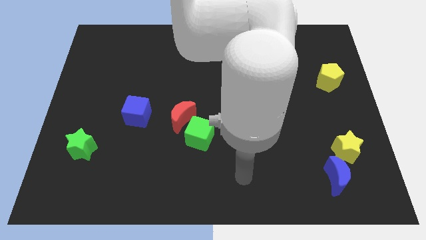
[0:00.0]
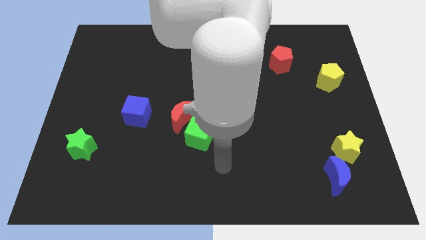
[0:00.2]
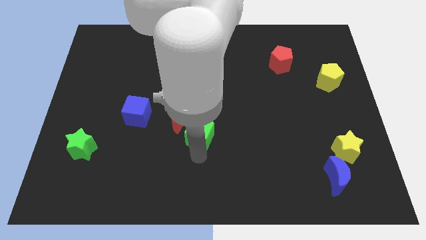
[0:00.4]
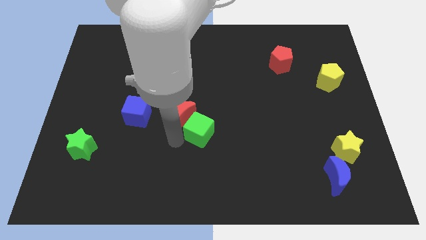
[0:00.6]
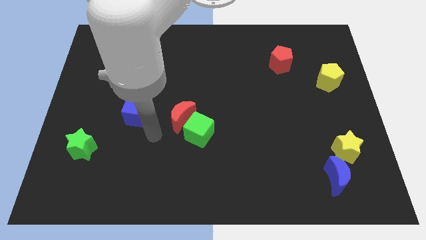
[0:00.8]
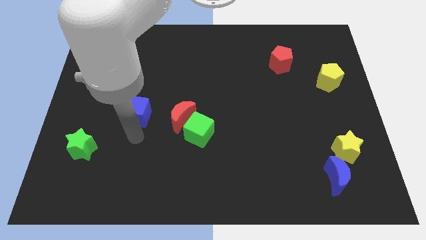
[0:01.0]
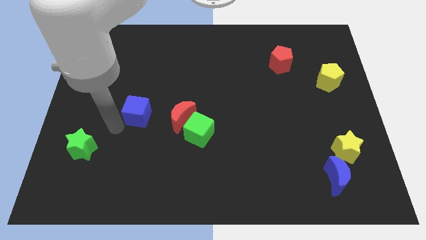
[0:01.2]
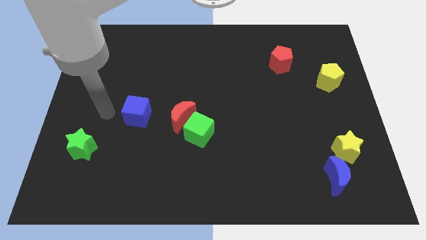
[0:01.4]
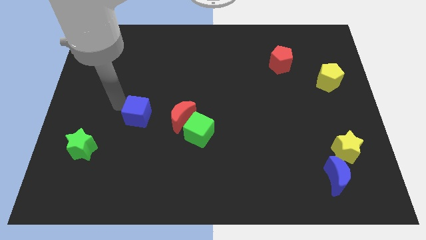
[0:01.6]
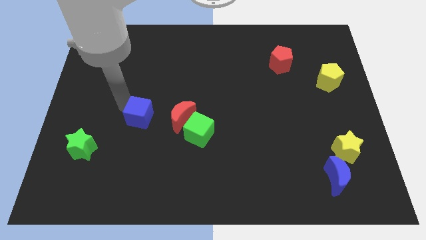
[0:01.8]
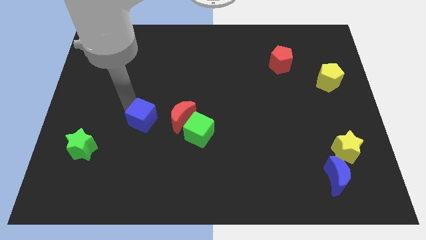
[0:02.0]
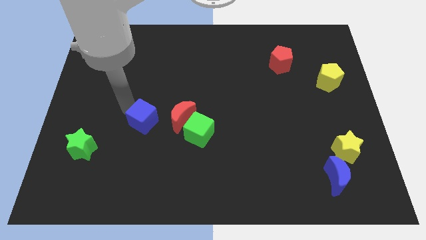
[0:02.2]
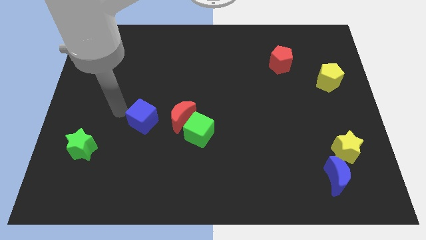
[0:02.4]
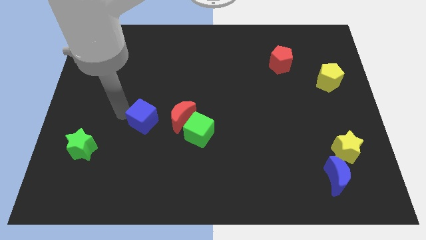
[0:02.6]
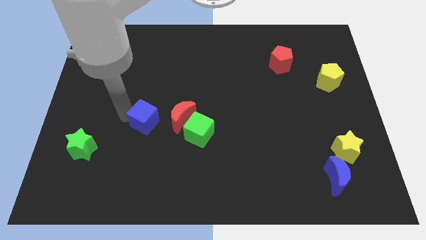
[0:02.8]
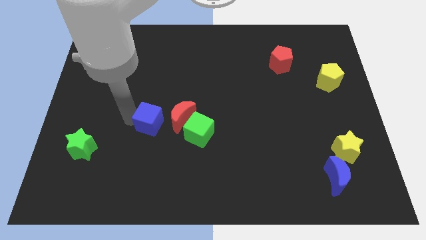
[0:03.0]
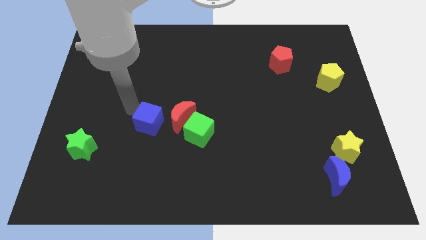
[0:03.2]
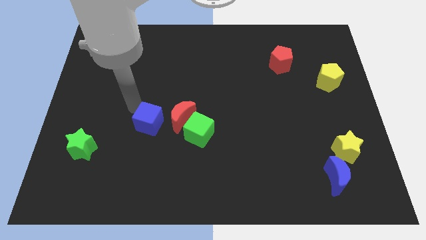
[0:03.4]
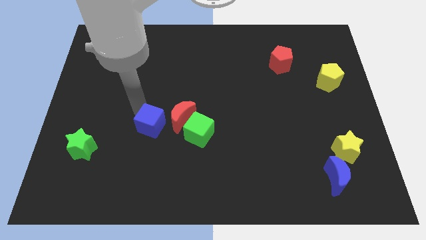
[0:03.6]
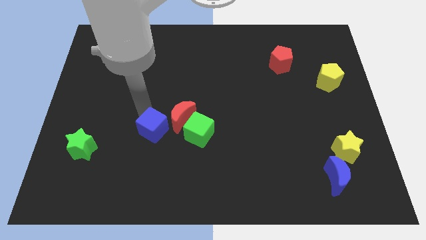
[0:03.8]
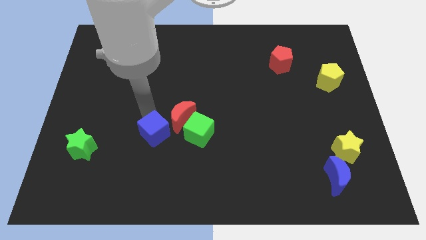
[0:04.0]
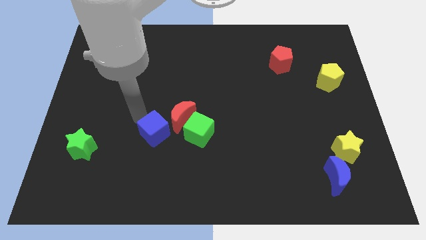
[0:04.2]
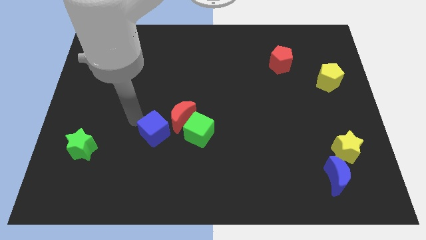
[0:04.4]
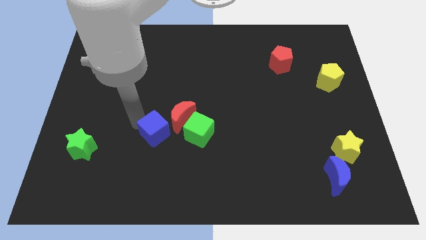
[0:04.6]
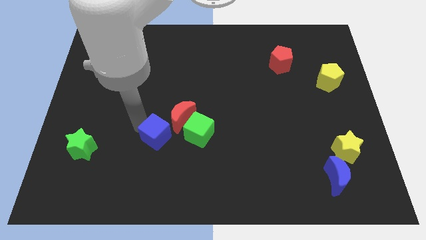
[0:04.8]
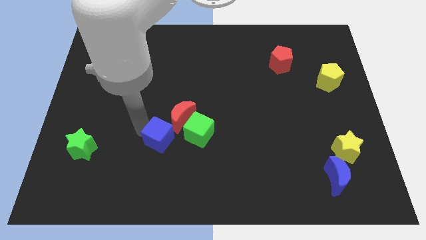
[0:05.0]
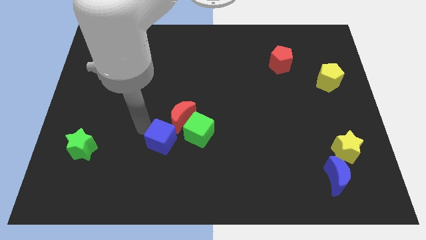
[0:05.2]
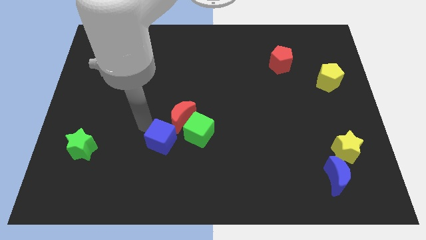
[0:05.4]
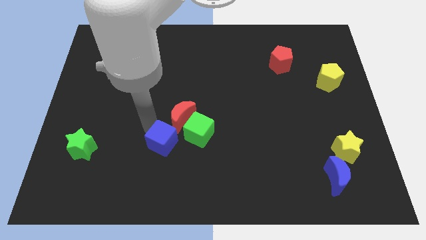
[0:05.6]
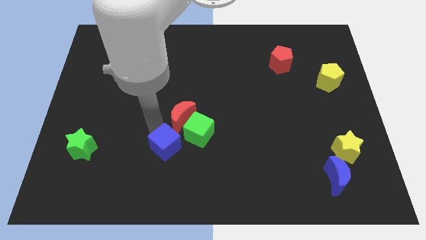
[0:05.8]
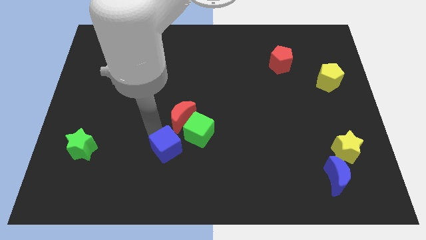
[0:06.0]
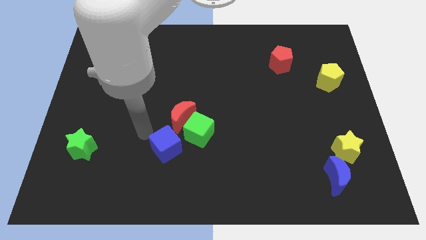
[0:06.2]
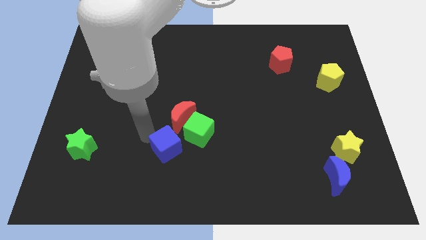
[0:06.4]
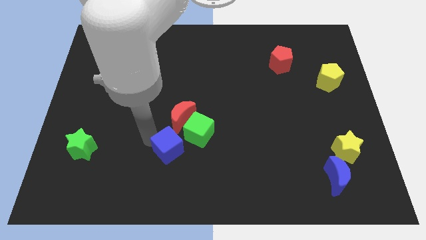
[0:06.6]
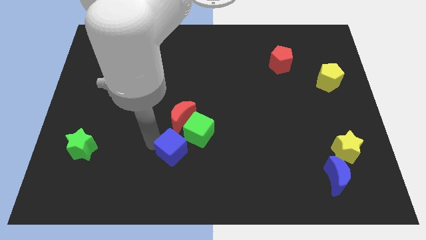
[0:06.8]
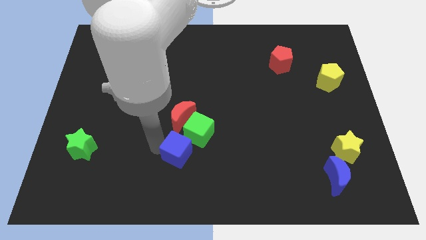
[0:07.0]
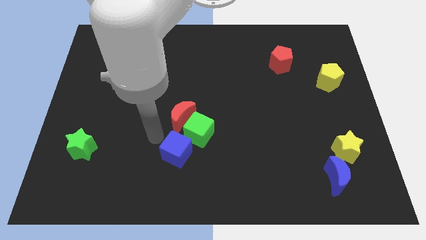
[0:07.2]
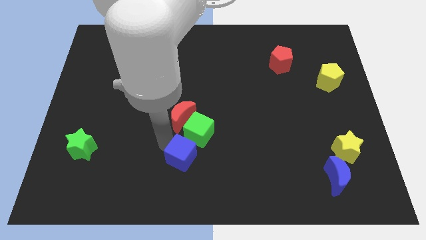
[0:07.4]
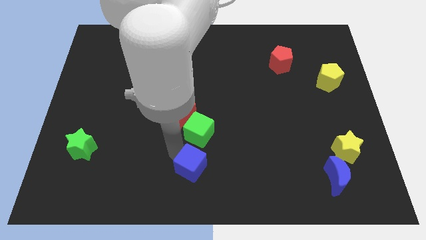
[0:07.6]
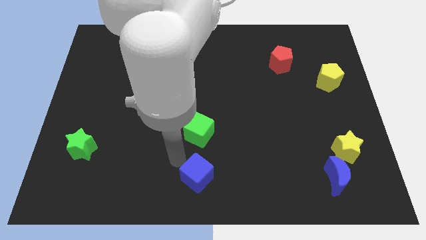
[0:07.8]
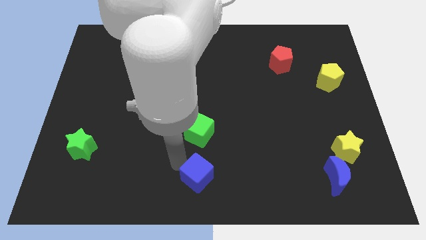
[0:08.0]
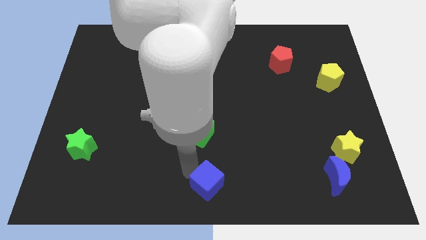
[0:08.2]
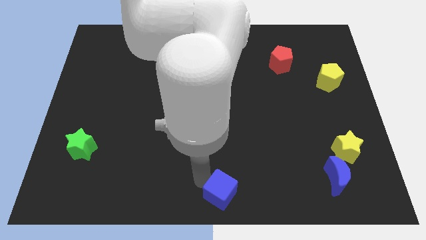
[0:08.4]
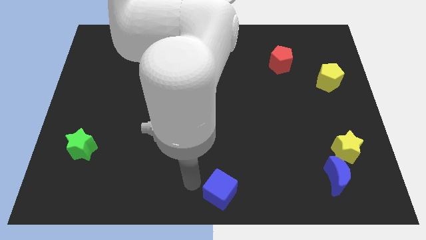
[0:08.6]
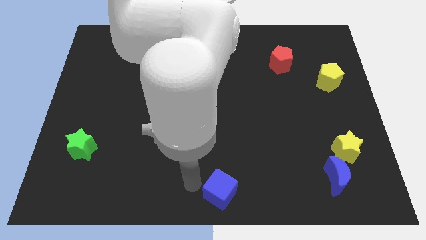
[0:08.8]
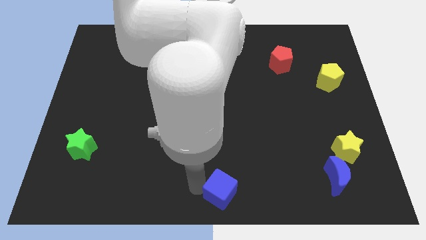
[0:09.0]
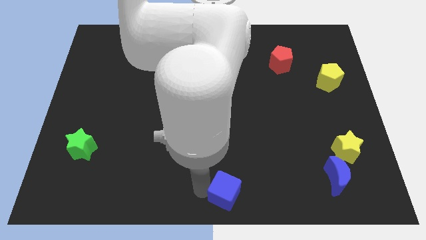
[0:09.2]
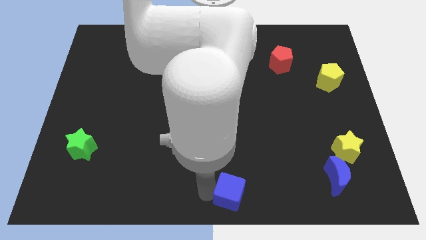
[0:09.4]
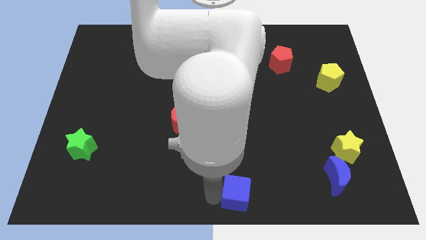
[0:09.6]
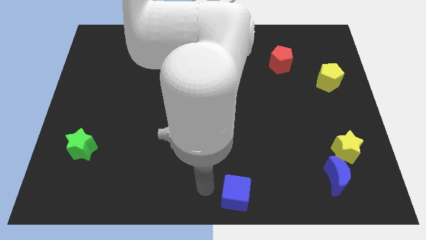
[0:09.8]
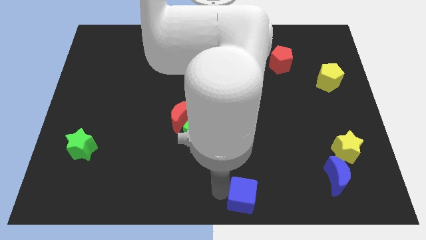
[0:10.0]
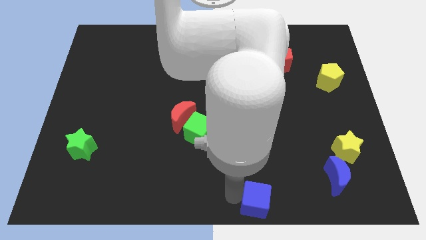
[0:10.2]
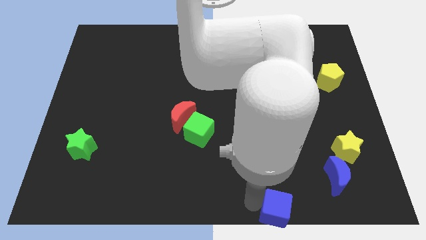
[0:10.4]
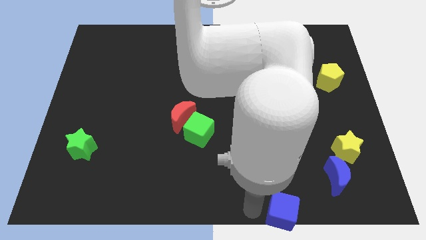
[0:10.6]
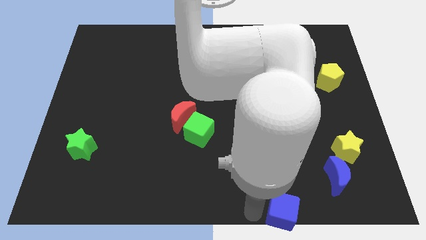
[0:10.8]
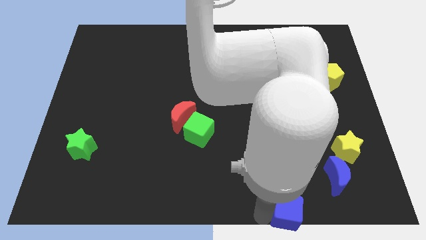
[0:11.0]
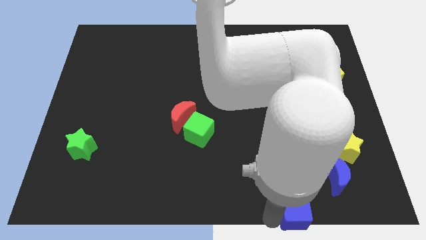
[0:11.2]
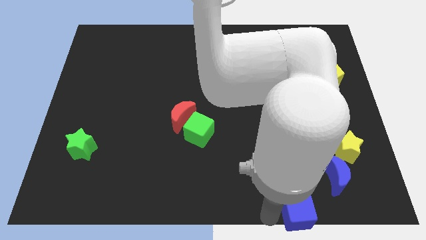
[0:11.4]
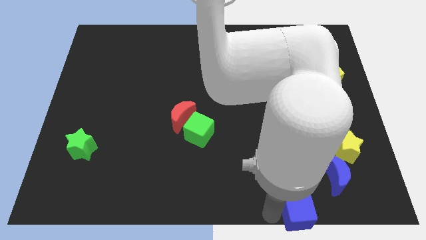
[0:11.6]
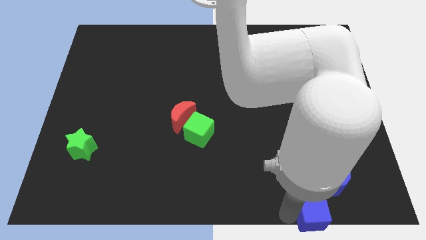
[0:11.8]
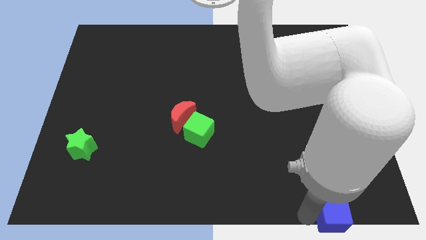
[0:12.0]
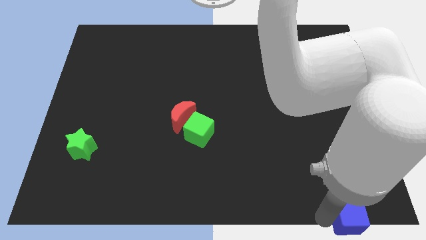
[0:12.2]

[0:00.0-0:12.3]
put the blue cube to the lower right corner
